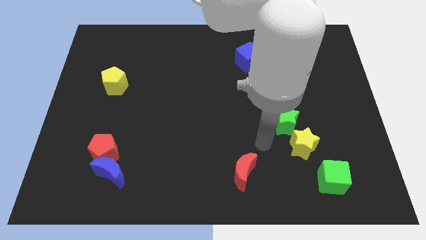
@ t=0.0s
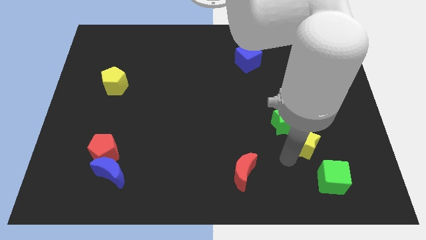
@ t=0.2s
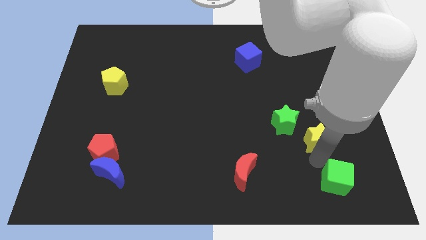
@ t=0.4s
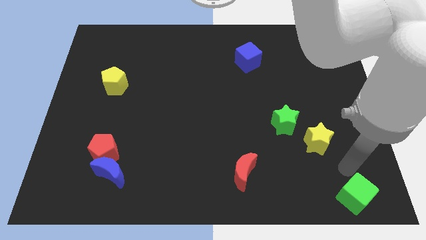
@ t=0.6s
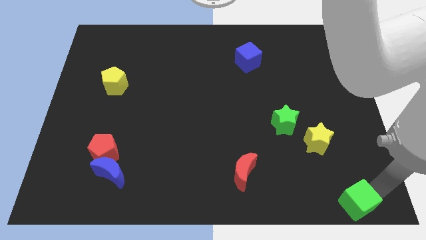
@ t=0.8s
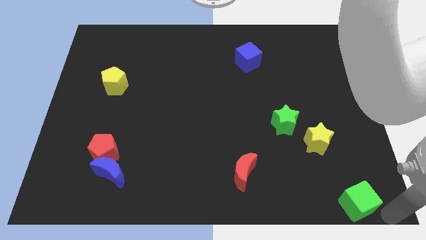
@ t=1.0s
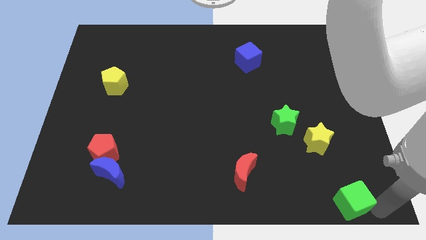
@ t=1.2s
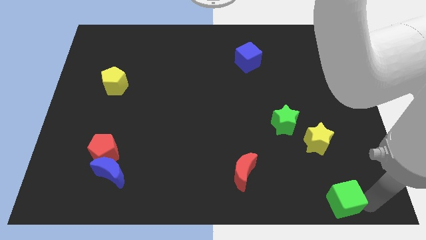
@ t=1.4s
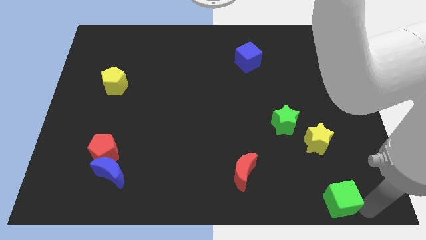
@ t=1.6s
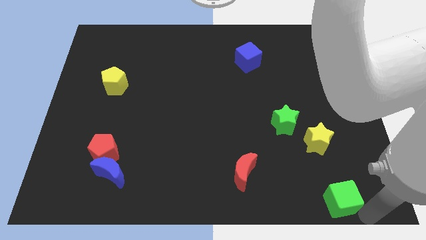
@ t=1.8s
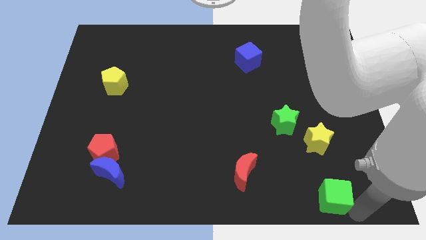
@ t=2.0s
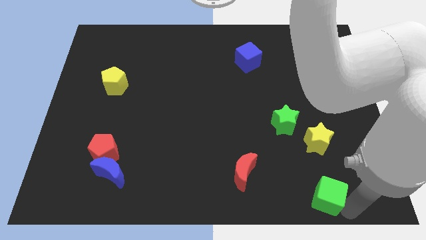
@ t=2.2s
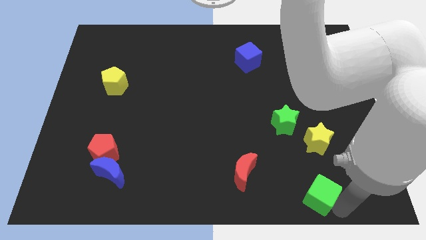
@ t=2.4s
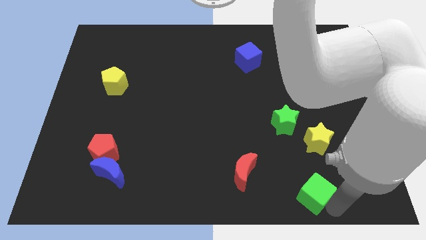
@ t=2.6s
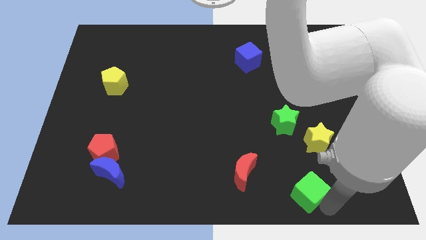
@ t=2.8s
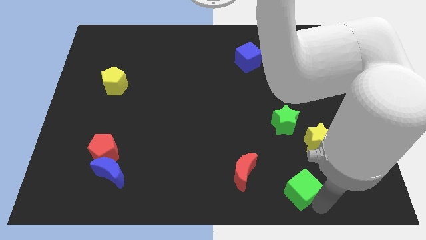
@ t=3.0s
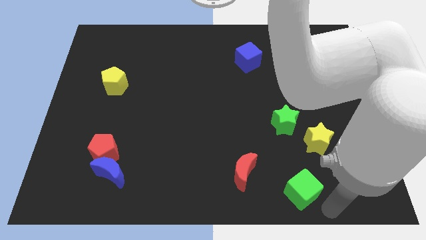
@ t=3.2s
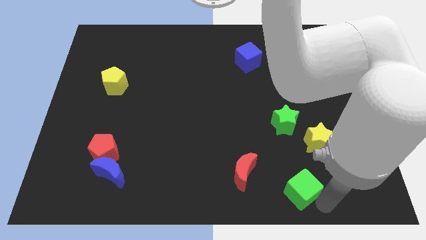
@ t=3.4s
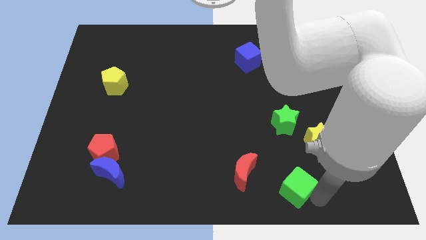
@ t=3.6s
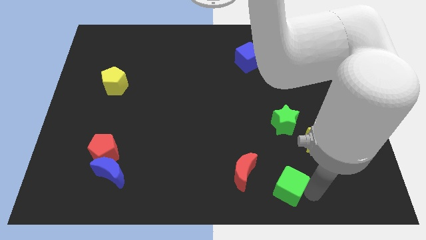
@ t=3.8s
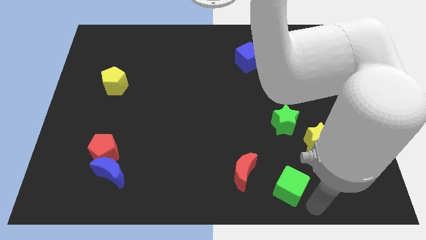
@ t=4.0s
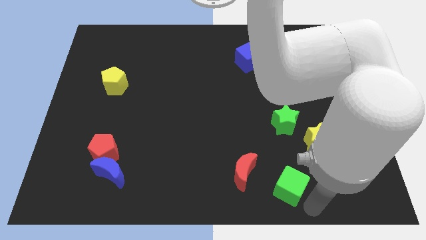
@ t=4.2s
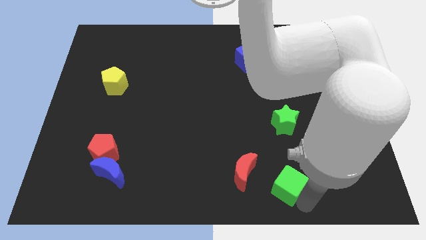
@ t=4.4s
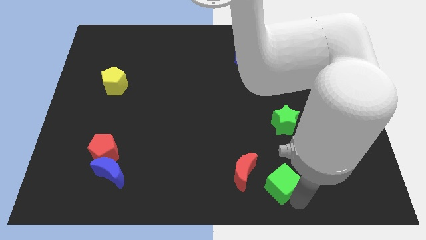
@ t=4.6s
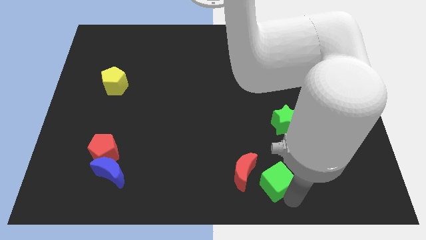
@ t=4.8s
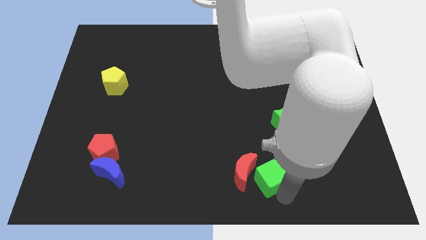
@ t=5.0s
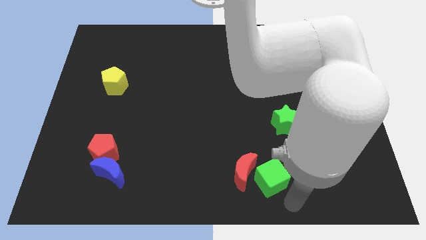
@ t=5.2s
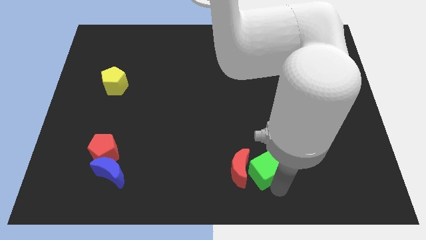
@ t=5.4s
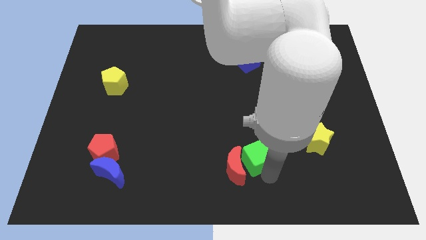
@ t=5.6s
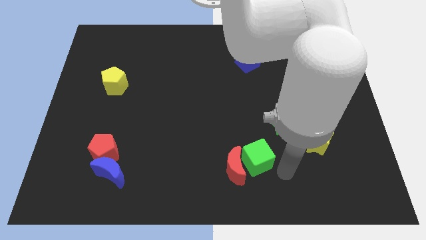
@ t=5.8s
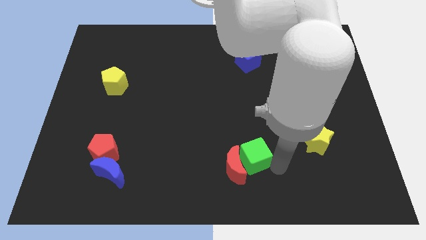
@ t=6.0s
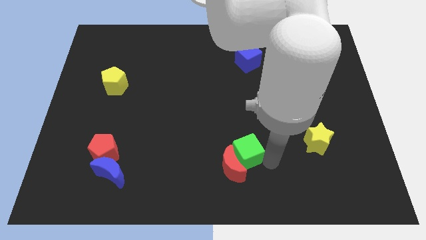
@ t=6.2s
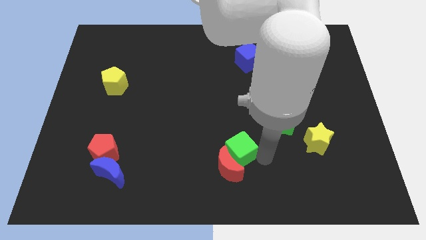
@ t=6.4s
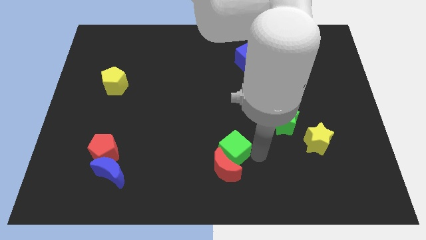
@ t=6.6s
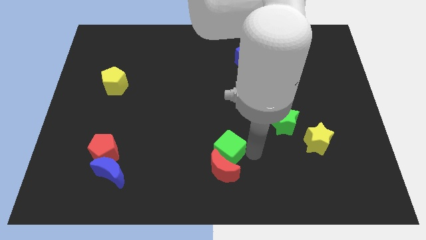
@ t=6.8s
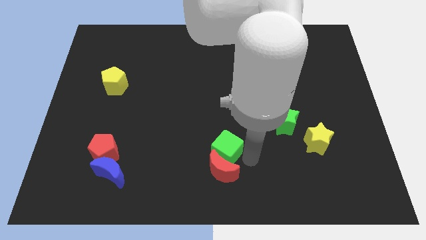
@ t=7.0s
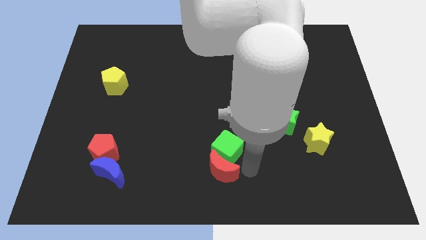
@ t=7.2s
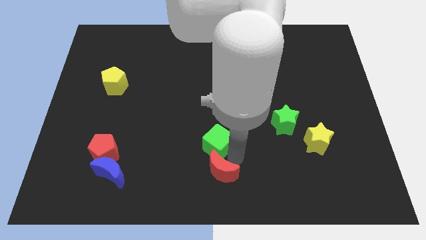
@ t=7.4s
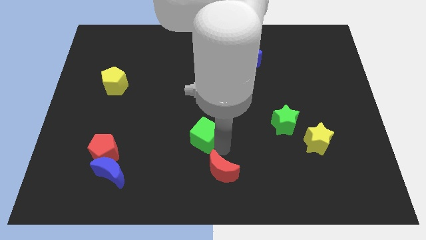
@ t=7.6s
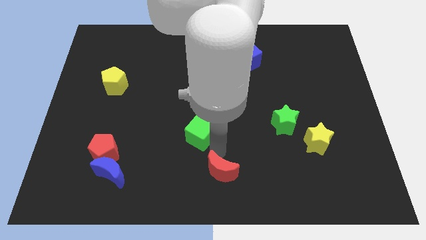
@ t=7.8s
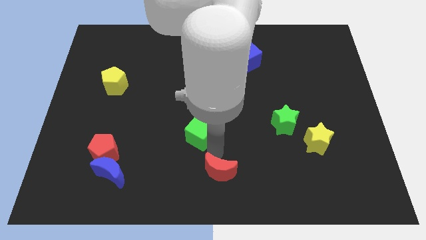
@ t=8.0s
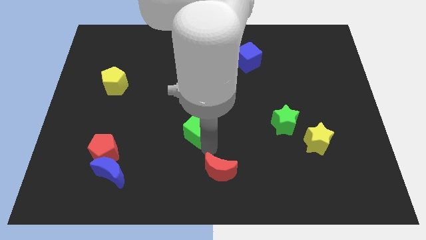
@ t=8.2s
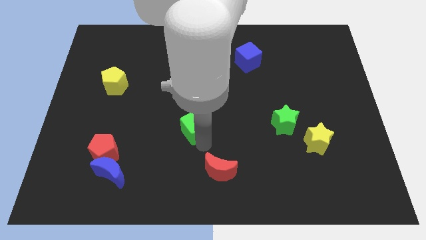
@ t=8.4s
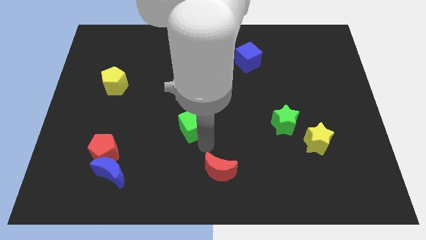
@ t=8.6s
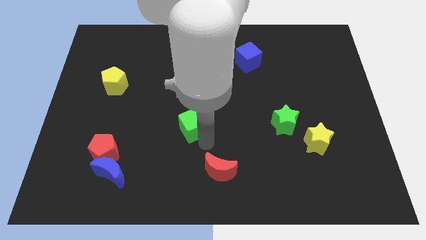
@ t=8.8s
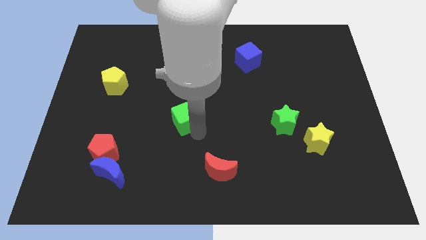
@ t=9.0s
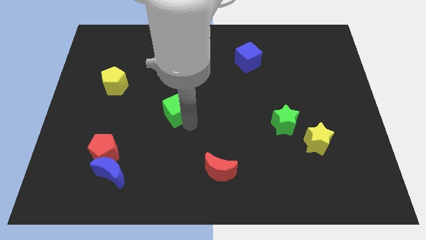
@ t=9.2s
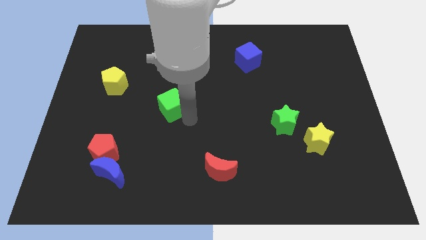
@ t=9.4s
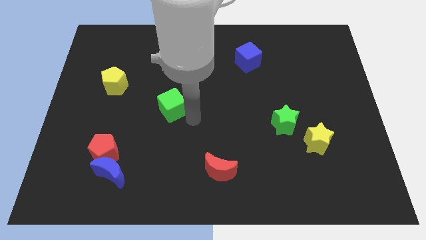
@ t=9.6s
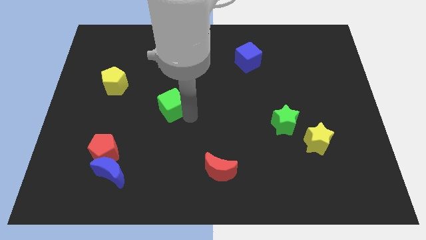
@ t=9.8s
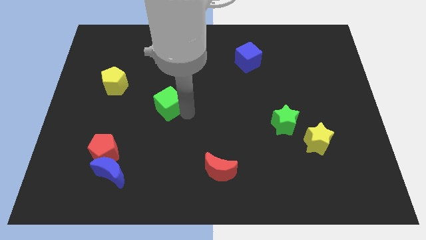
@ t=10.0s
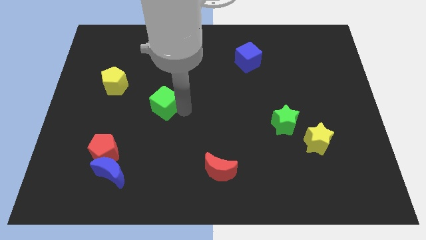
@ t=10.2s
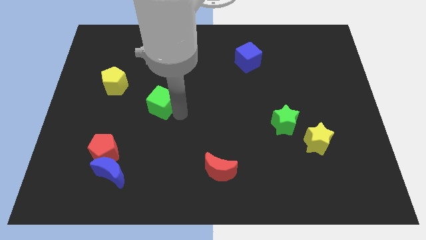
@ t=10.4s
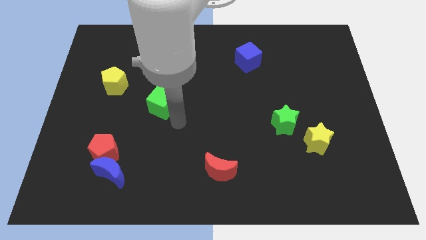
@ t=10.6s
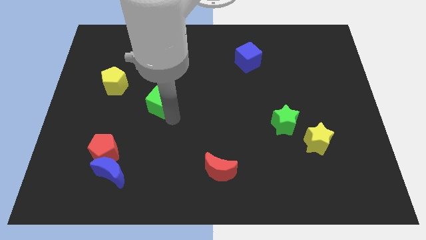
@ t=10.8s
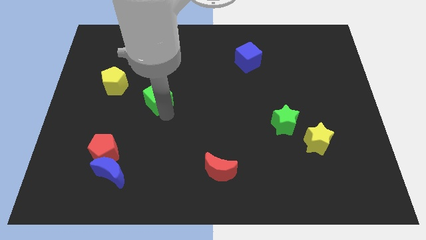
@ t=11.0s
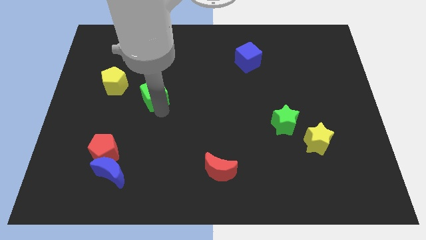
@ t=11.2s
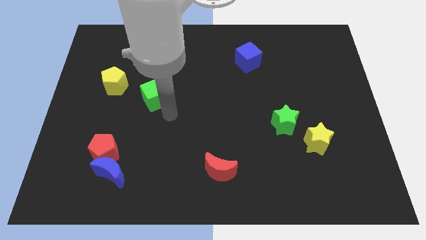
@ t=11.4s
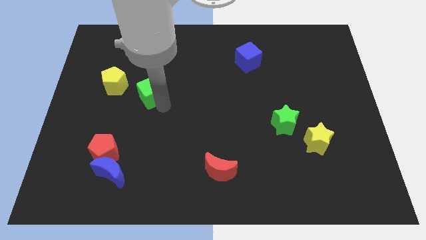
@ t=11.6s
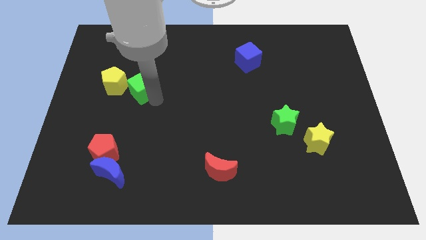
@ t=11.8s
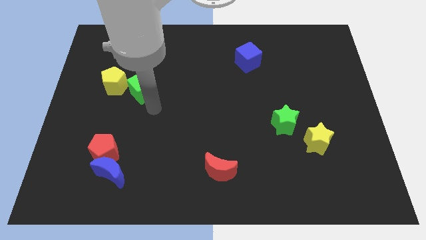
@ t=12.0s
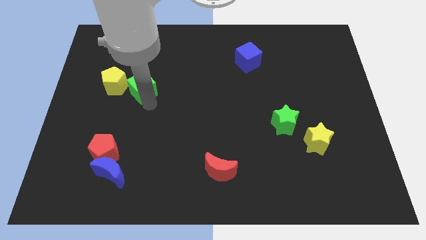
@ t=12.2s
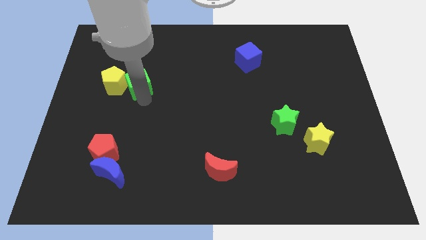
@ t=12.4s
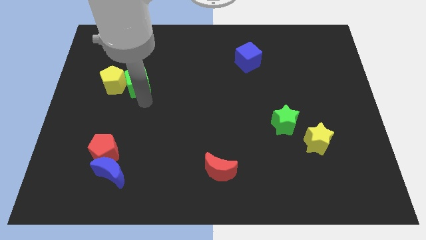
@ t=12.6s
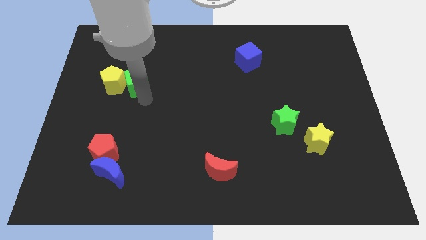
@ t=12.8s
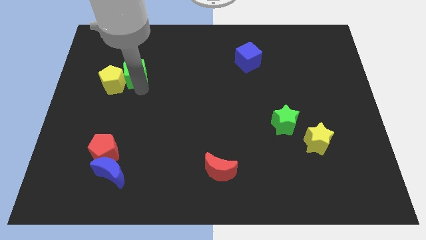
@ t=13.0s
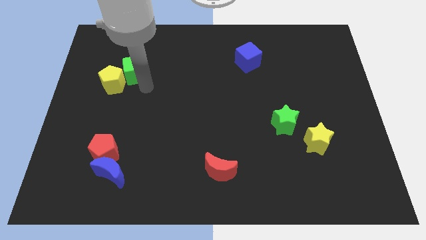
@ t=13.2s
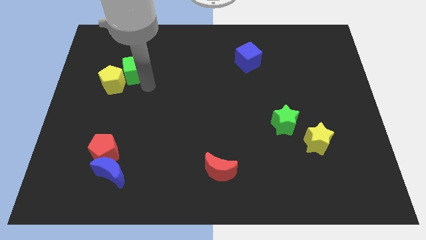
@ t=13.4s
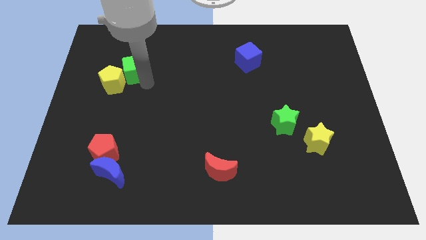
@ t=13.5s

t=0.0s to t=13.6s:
move the green cube to the top side of the yellow pentagon
